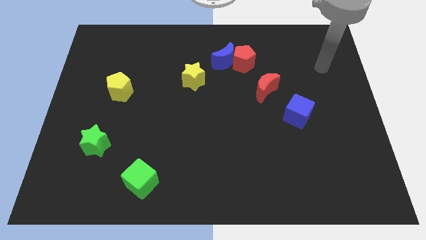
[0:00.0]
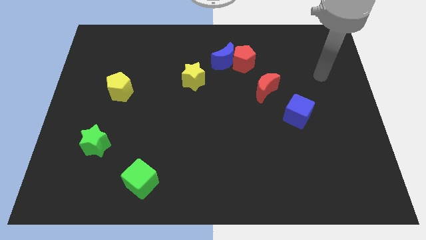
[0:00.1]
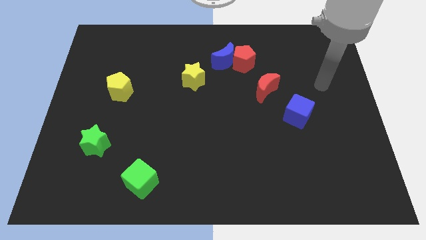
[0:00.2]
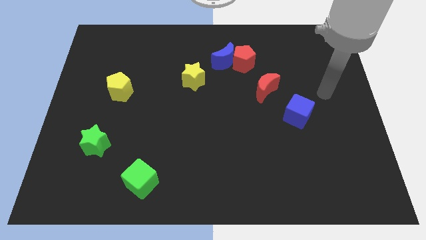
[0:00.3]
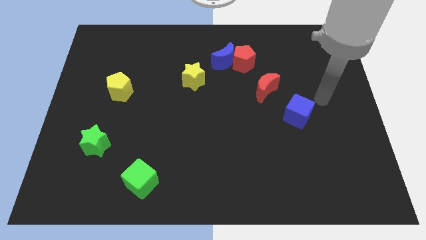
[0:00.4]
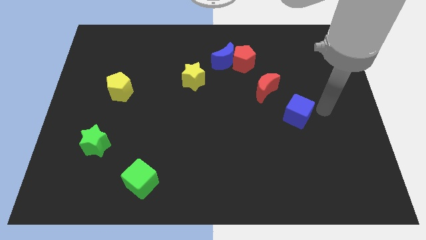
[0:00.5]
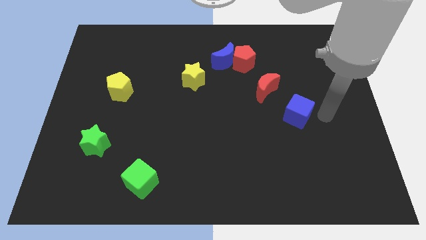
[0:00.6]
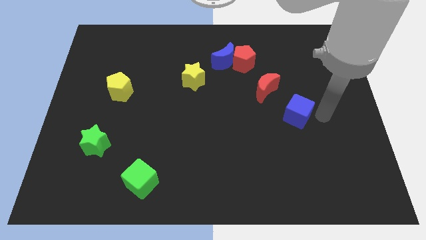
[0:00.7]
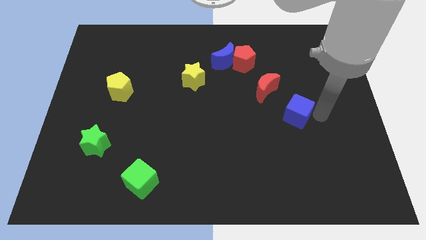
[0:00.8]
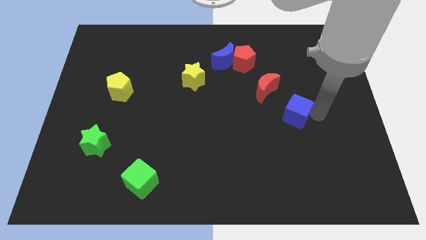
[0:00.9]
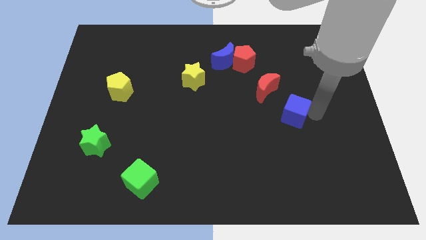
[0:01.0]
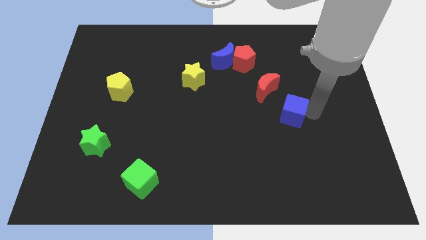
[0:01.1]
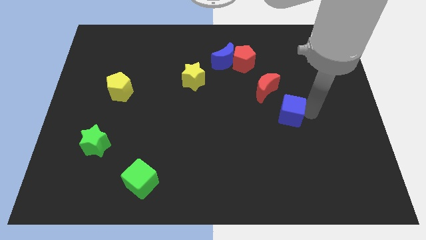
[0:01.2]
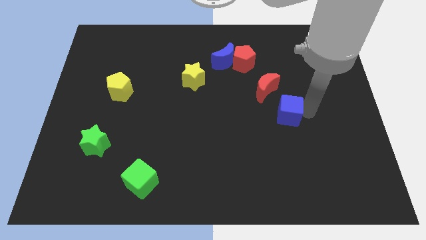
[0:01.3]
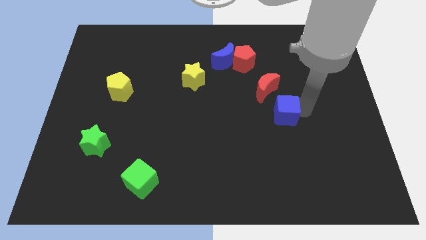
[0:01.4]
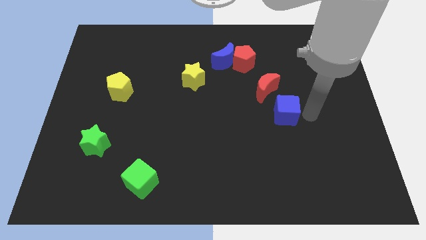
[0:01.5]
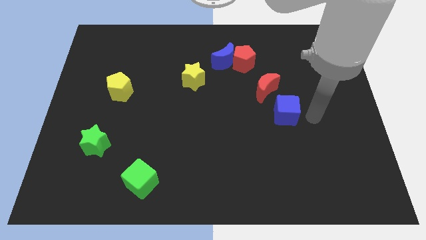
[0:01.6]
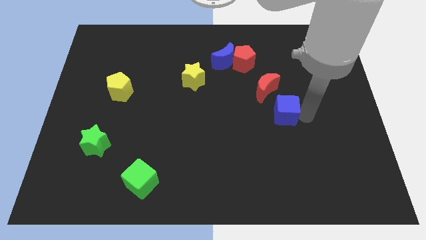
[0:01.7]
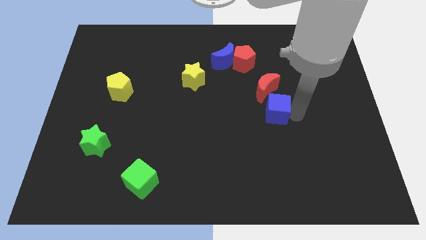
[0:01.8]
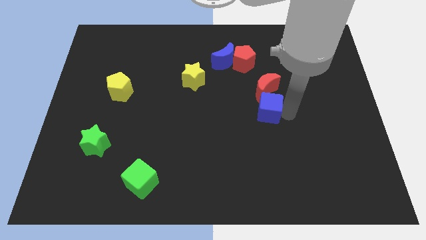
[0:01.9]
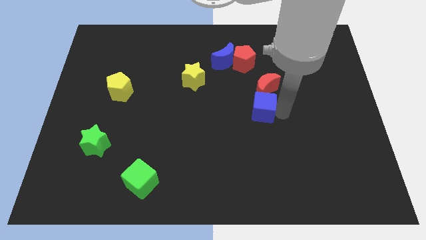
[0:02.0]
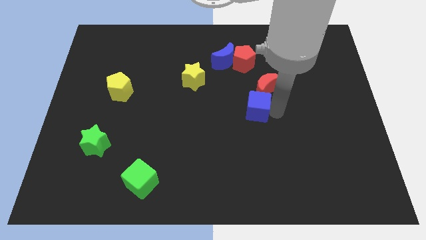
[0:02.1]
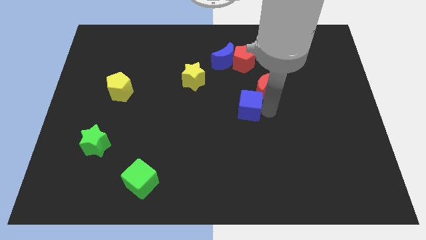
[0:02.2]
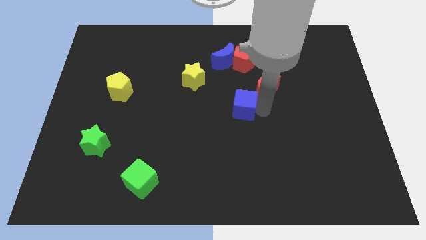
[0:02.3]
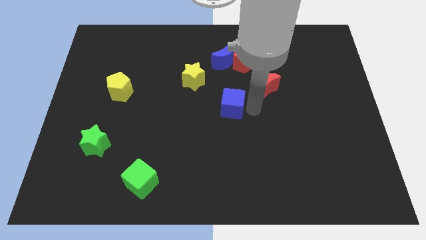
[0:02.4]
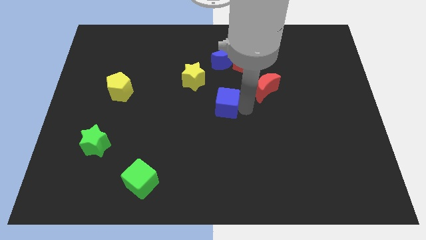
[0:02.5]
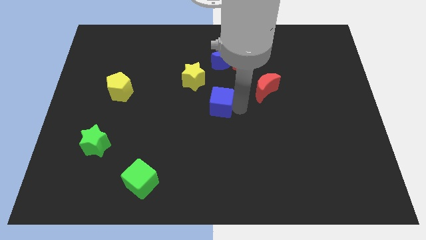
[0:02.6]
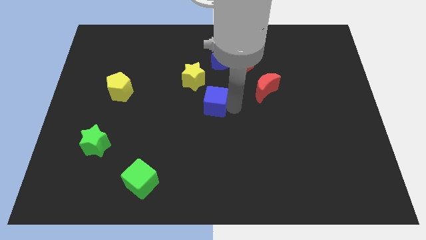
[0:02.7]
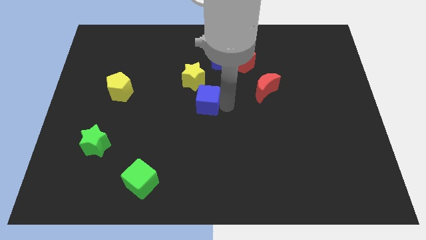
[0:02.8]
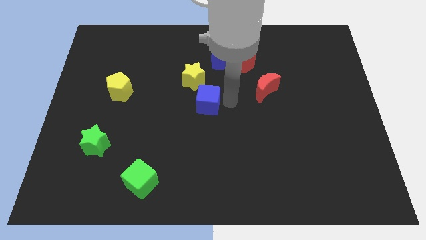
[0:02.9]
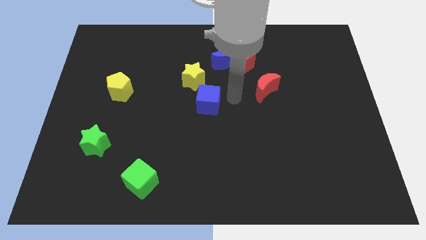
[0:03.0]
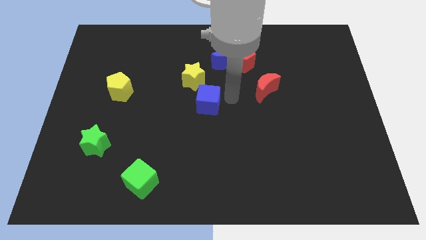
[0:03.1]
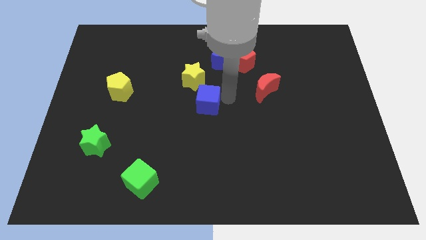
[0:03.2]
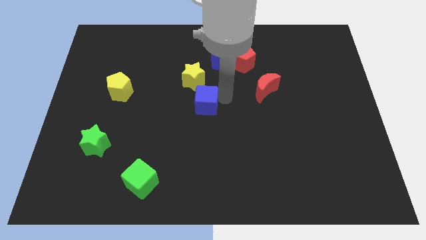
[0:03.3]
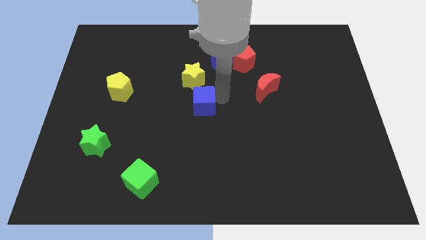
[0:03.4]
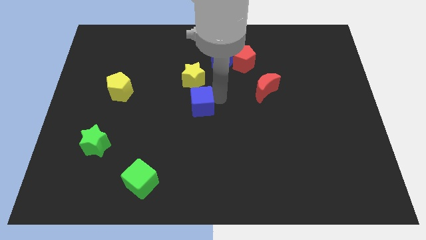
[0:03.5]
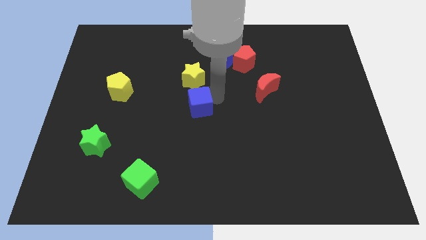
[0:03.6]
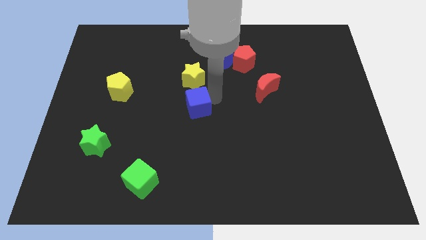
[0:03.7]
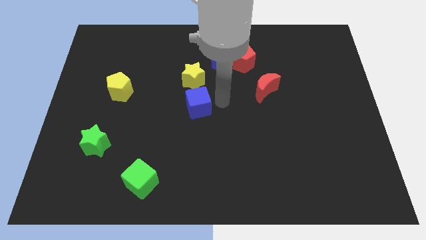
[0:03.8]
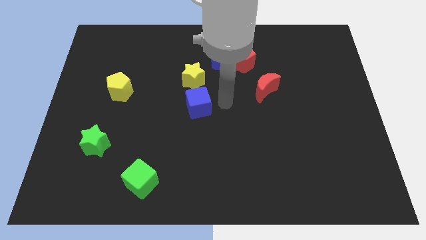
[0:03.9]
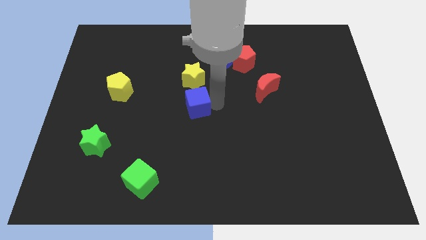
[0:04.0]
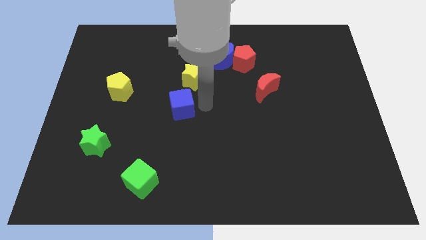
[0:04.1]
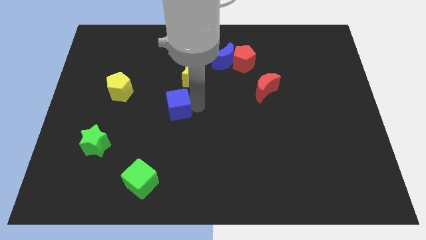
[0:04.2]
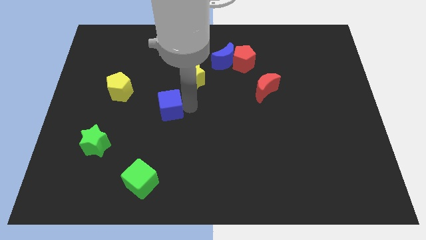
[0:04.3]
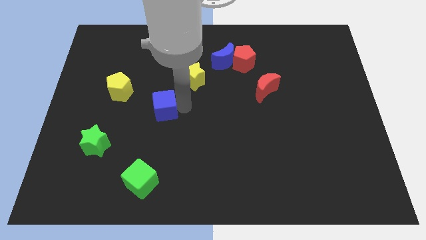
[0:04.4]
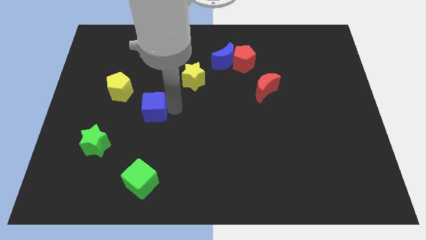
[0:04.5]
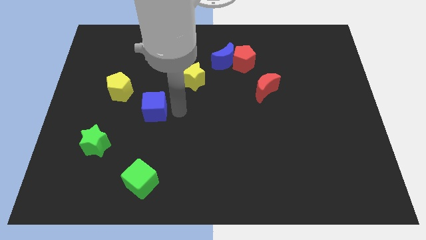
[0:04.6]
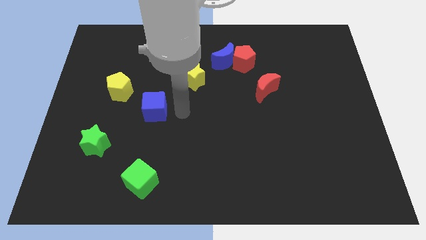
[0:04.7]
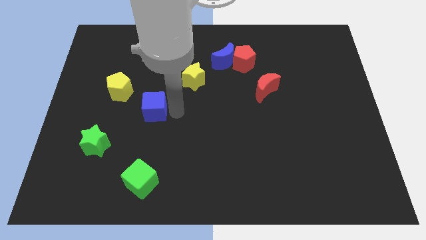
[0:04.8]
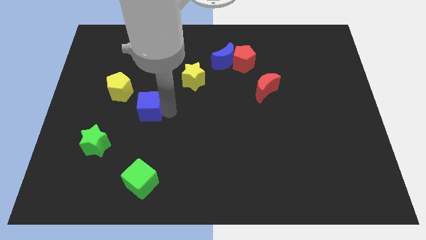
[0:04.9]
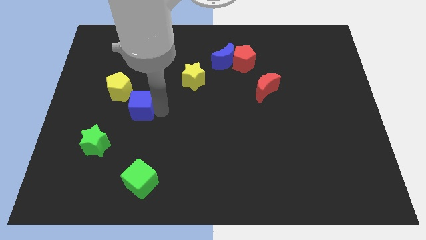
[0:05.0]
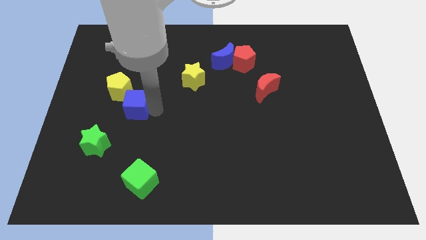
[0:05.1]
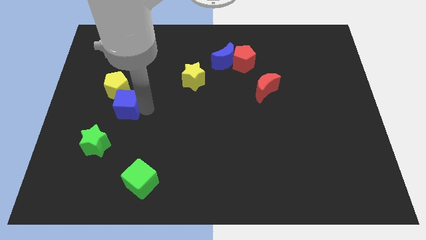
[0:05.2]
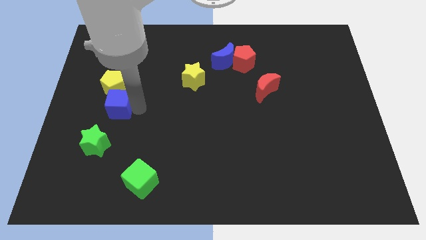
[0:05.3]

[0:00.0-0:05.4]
move the blue cube to the top side of the green star

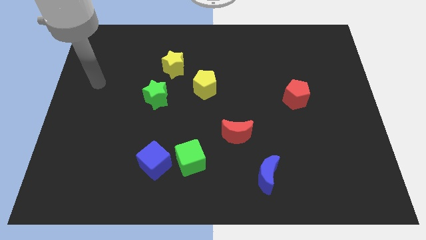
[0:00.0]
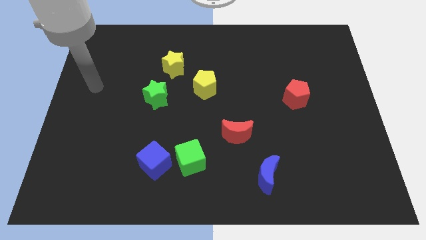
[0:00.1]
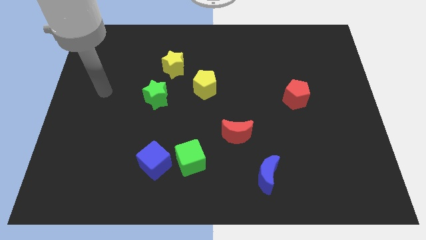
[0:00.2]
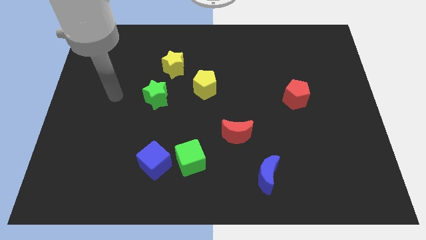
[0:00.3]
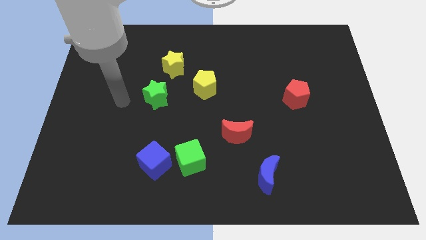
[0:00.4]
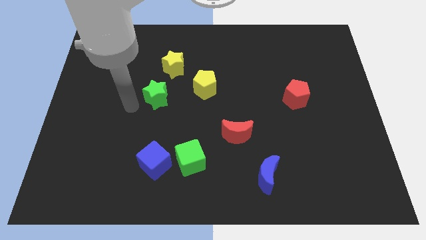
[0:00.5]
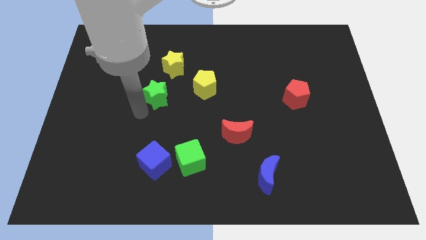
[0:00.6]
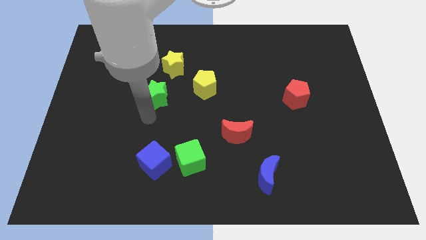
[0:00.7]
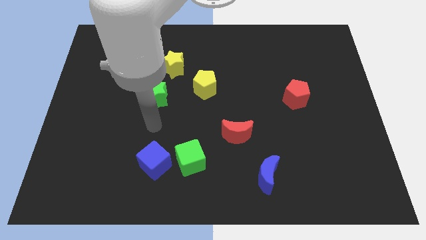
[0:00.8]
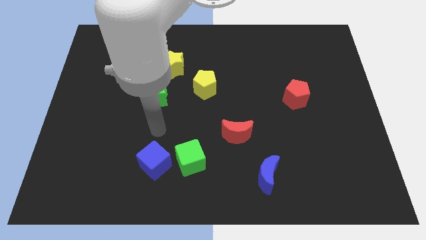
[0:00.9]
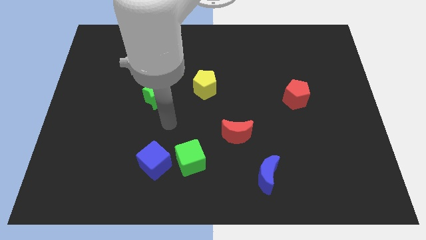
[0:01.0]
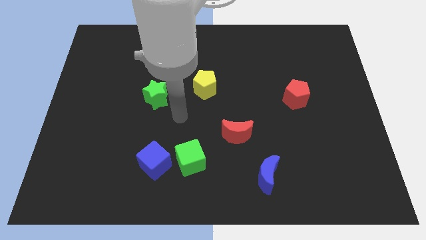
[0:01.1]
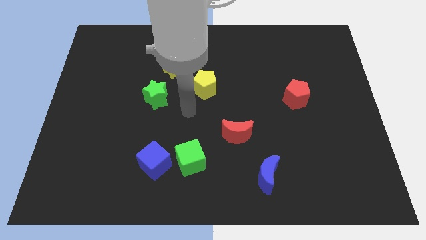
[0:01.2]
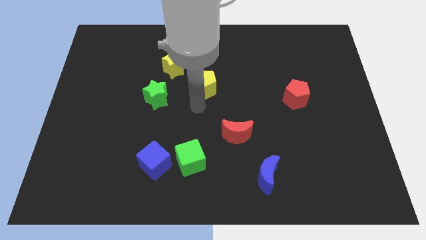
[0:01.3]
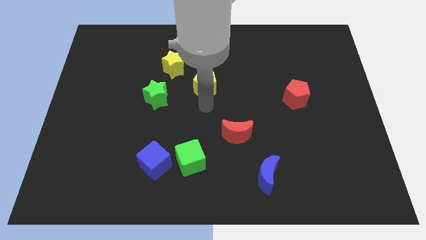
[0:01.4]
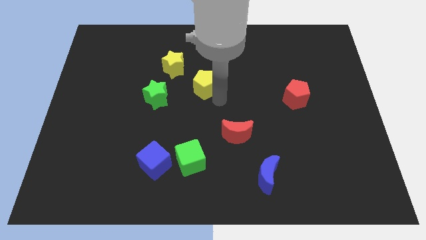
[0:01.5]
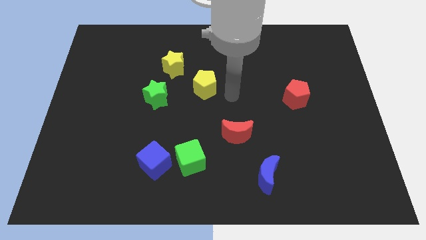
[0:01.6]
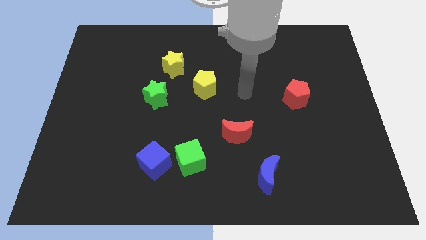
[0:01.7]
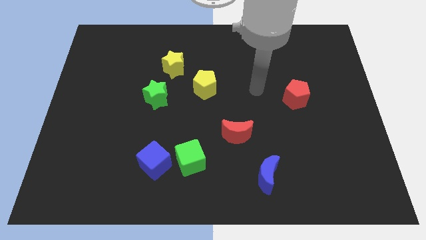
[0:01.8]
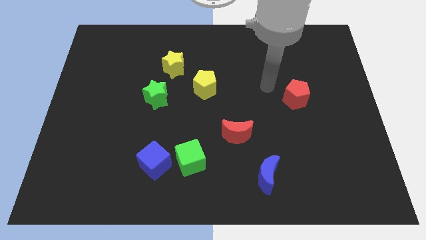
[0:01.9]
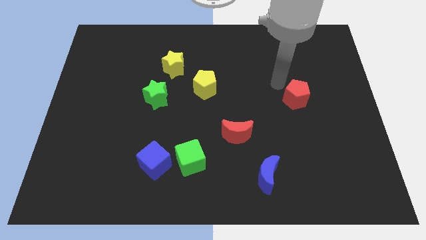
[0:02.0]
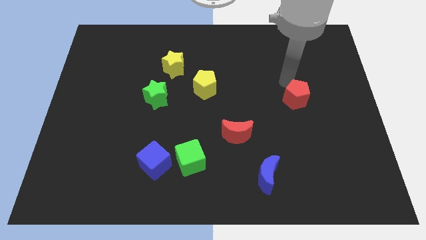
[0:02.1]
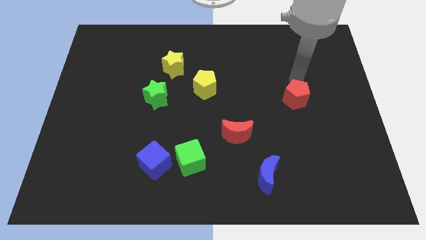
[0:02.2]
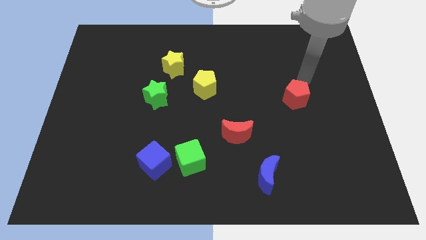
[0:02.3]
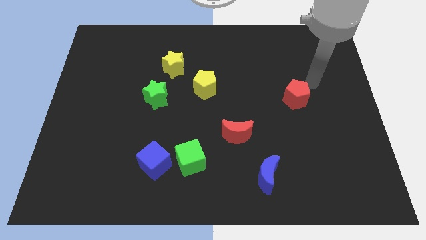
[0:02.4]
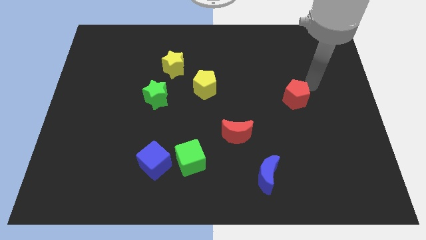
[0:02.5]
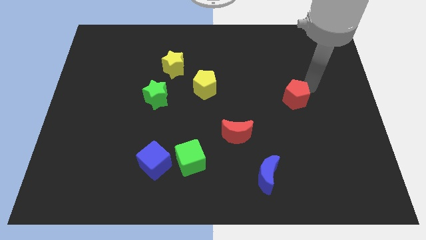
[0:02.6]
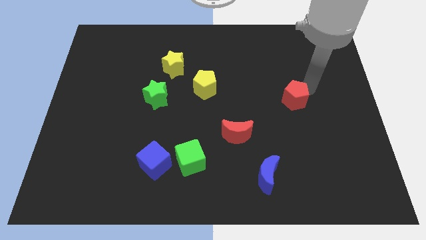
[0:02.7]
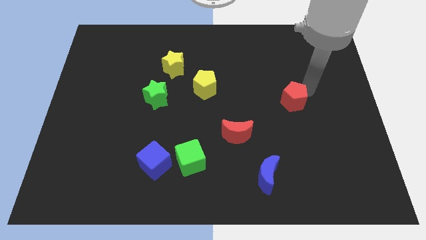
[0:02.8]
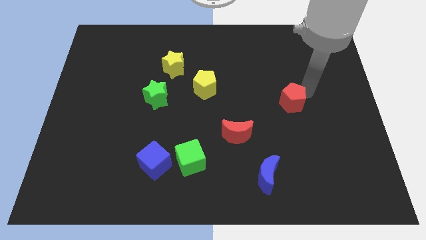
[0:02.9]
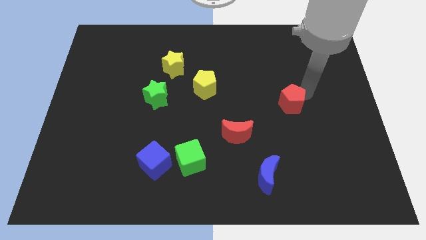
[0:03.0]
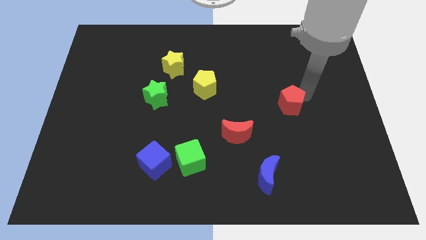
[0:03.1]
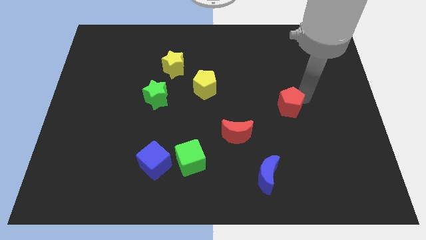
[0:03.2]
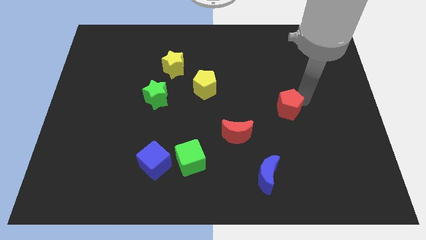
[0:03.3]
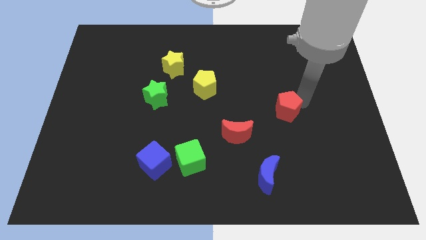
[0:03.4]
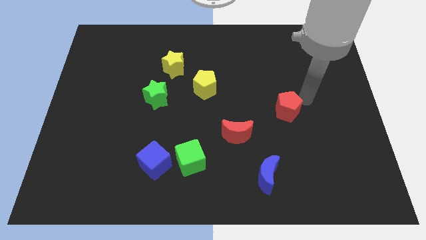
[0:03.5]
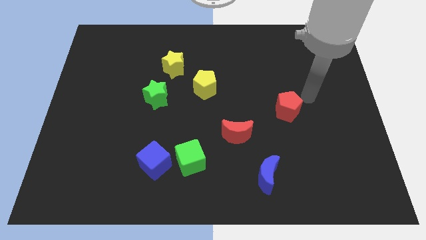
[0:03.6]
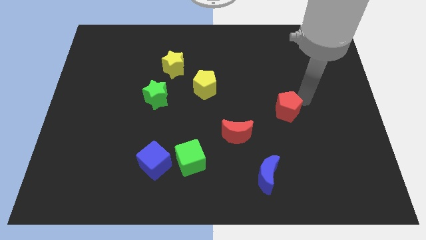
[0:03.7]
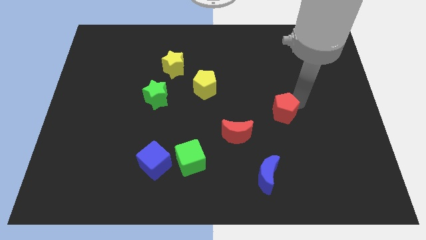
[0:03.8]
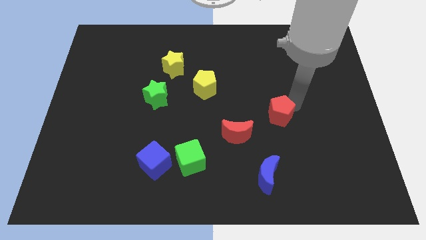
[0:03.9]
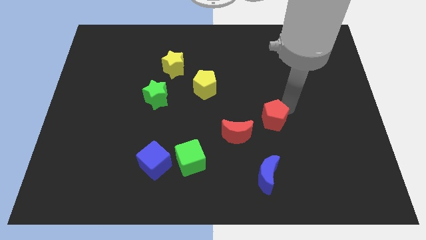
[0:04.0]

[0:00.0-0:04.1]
slide the red pentagon to the top of the blue moon
